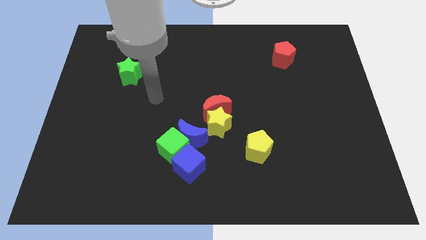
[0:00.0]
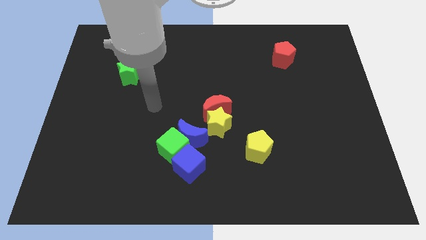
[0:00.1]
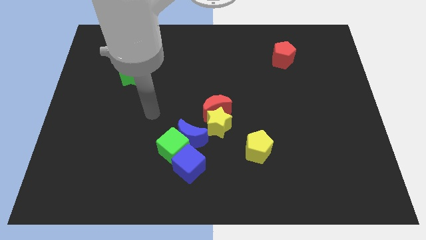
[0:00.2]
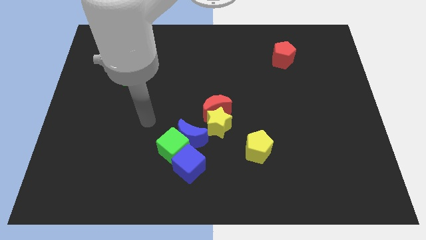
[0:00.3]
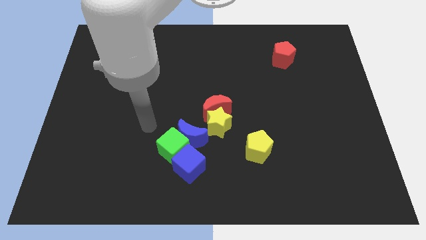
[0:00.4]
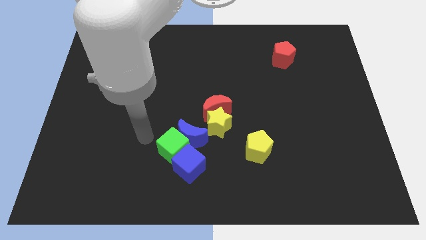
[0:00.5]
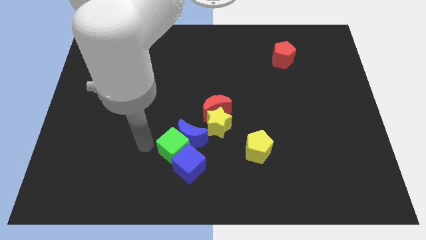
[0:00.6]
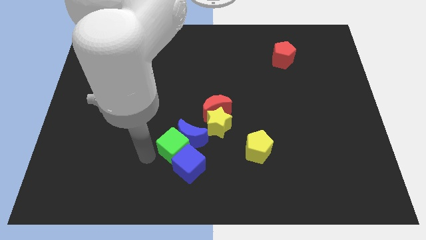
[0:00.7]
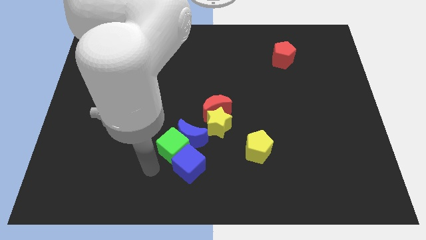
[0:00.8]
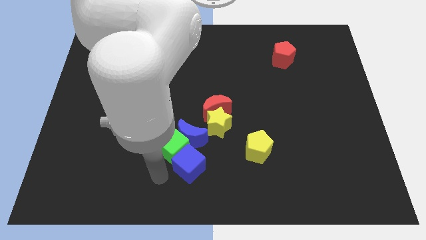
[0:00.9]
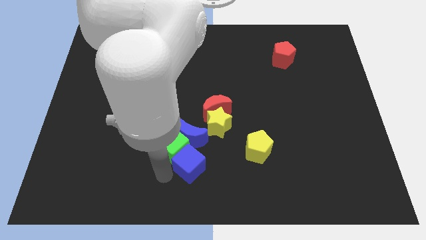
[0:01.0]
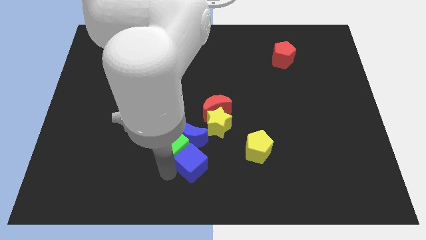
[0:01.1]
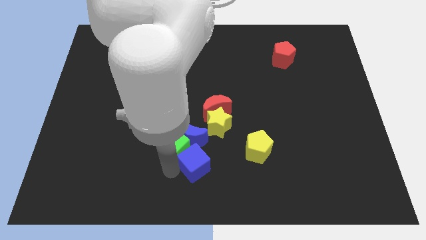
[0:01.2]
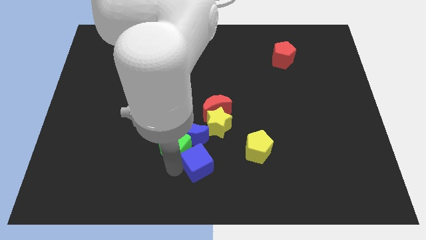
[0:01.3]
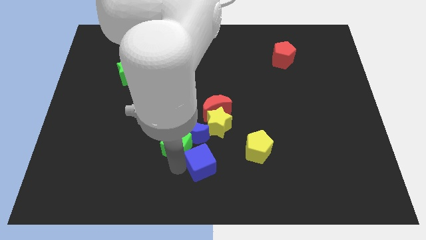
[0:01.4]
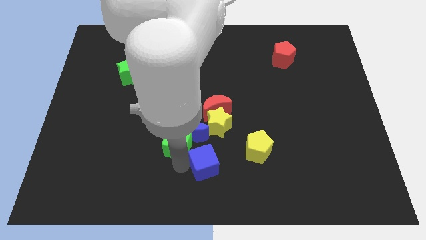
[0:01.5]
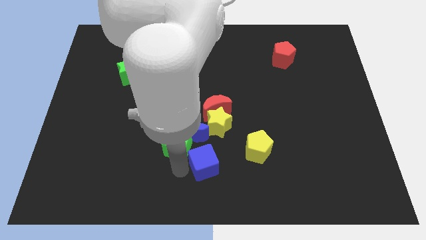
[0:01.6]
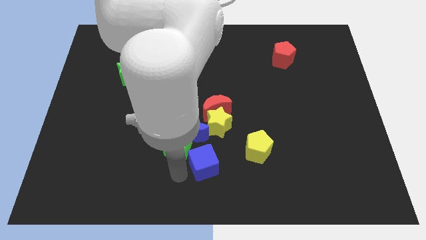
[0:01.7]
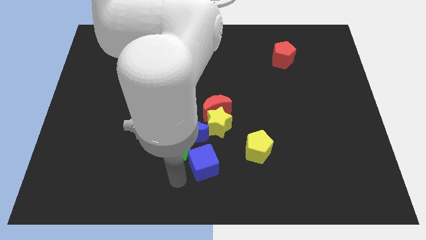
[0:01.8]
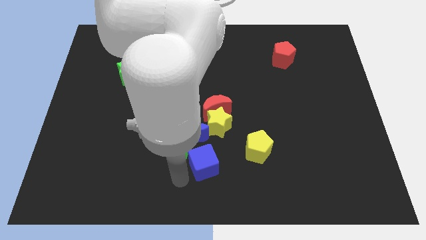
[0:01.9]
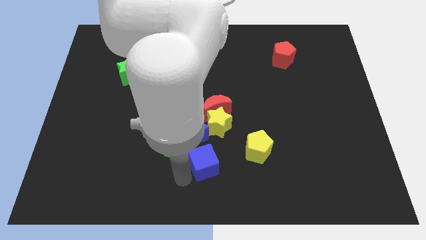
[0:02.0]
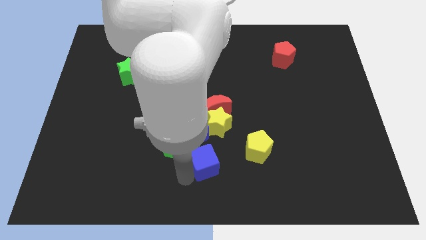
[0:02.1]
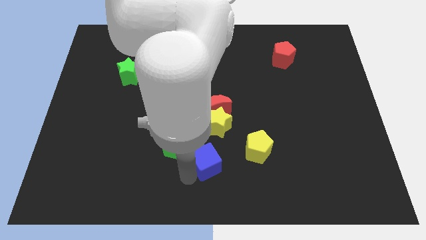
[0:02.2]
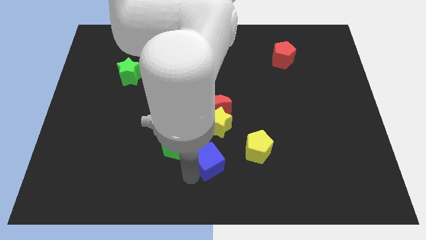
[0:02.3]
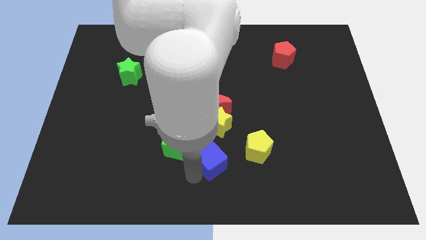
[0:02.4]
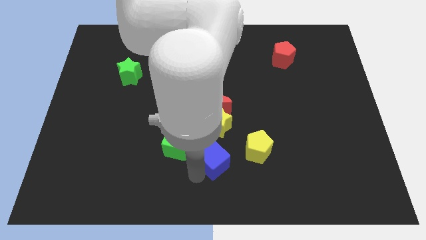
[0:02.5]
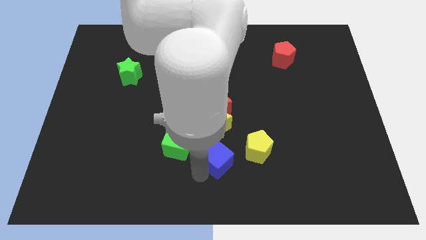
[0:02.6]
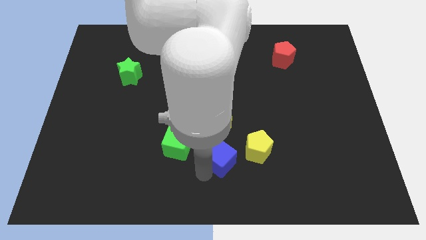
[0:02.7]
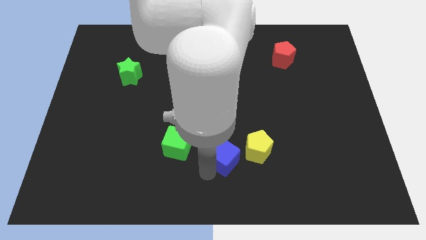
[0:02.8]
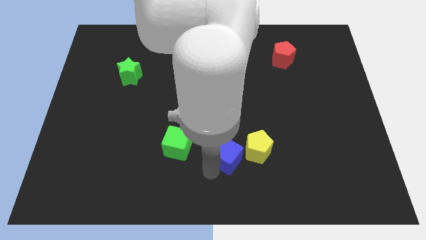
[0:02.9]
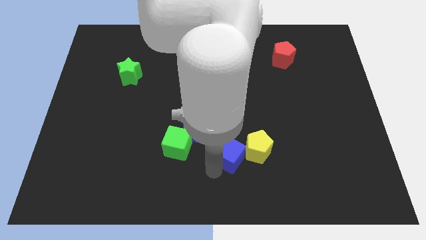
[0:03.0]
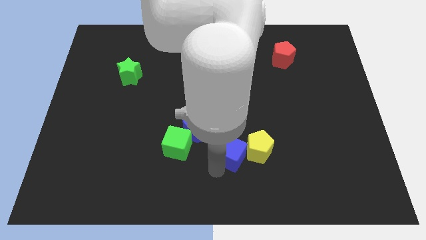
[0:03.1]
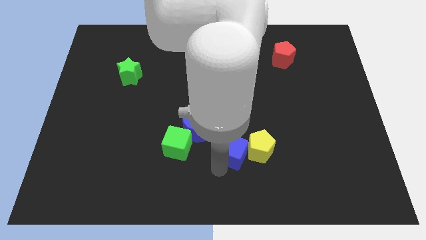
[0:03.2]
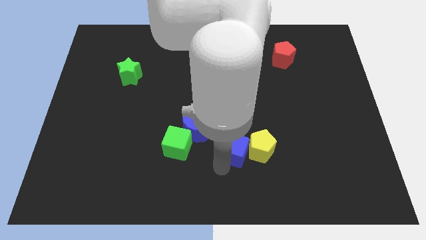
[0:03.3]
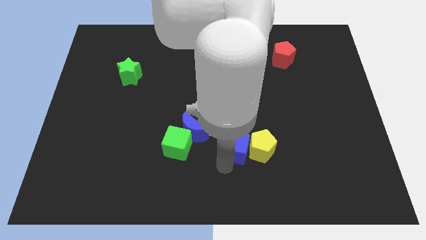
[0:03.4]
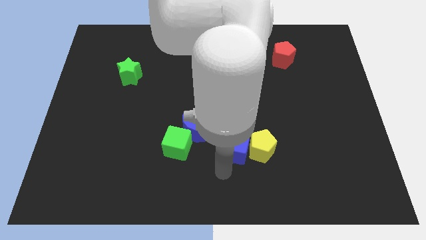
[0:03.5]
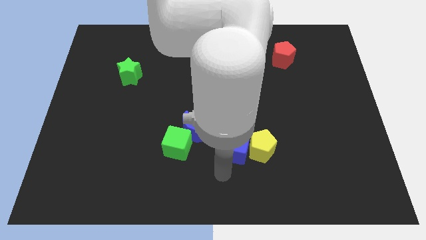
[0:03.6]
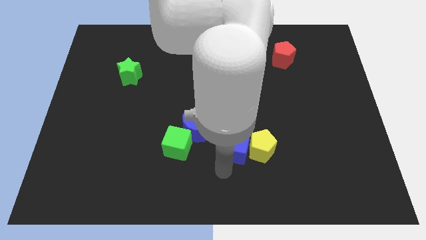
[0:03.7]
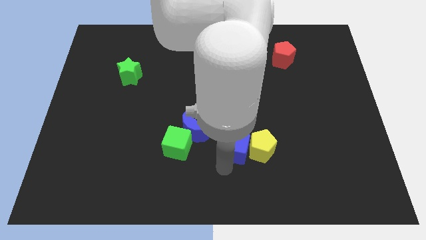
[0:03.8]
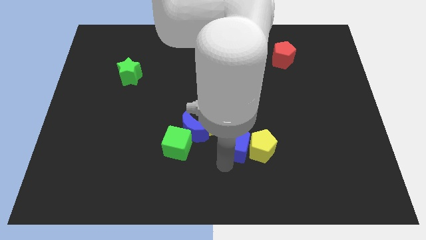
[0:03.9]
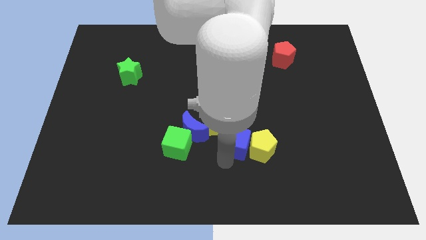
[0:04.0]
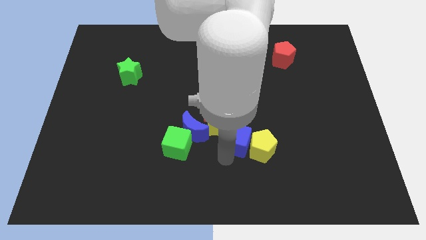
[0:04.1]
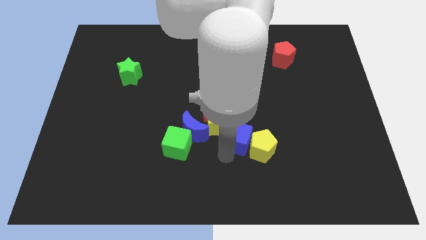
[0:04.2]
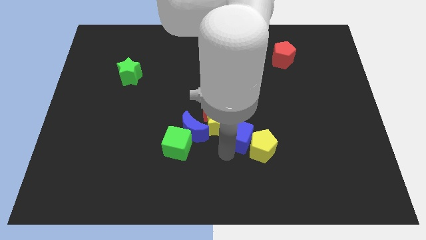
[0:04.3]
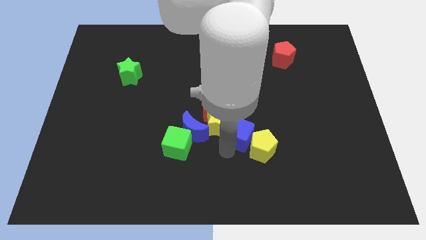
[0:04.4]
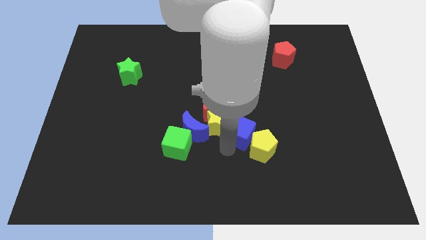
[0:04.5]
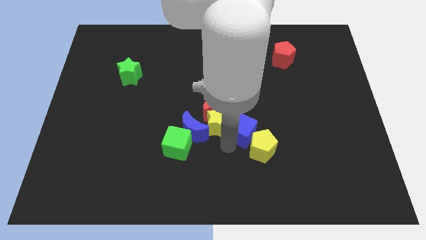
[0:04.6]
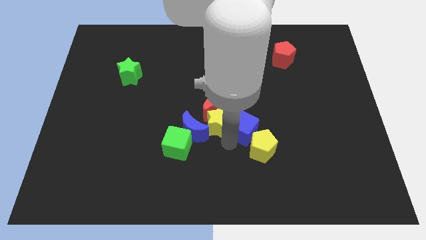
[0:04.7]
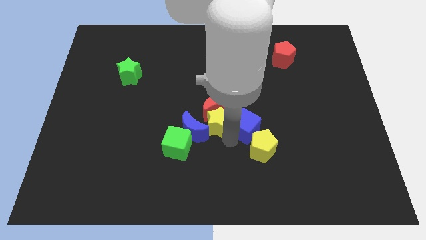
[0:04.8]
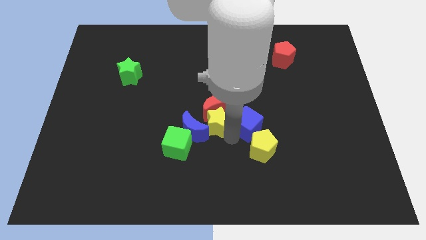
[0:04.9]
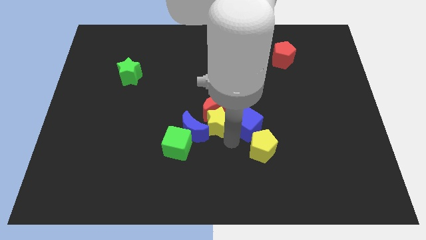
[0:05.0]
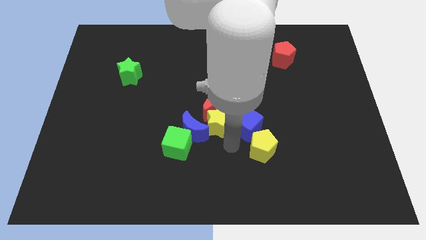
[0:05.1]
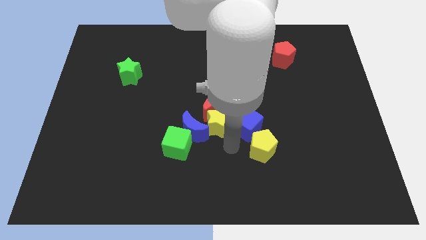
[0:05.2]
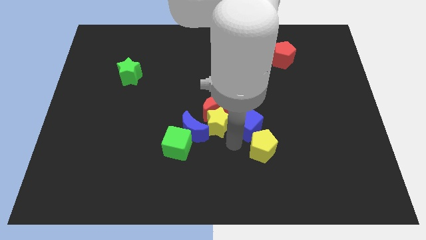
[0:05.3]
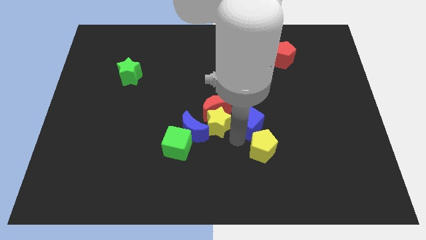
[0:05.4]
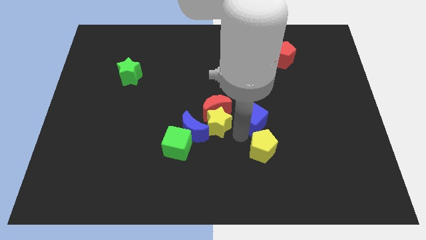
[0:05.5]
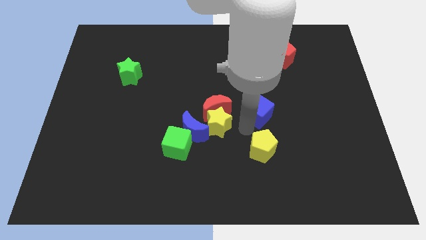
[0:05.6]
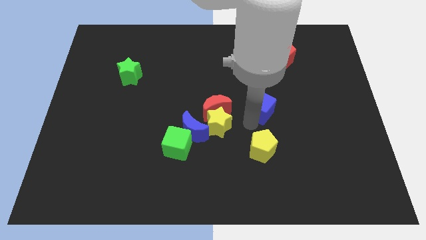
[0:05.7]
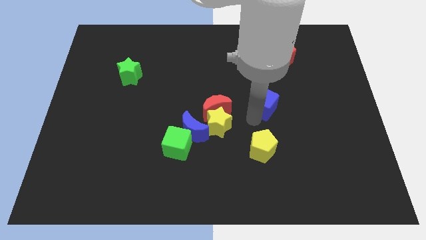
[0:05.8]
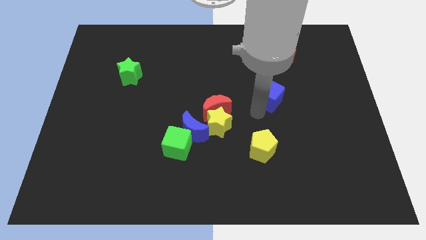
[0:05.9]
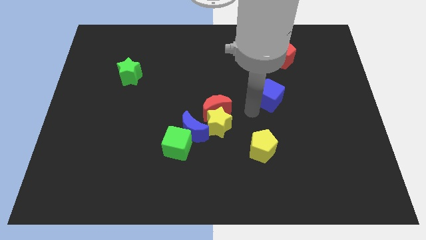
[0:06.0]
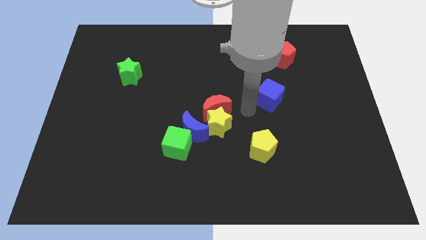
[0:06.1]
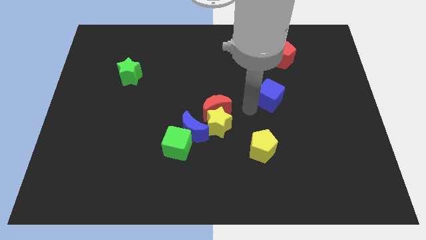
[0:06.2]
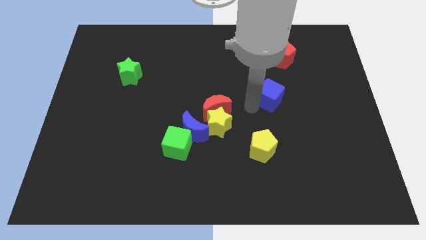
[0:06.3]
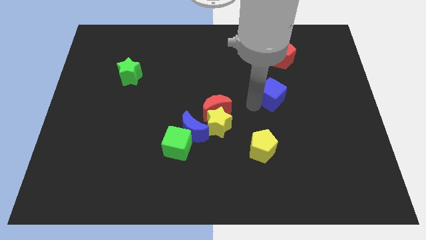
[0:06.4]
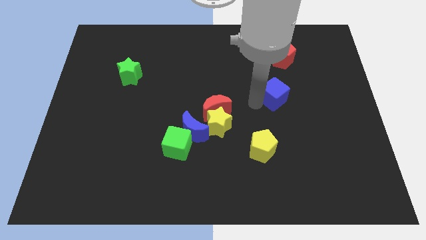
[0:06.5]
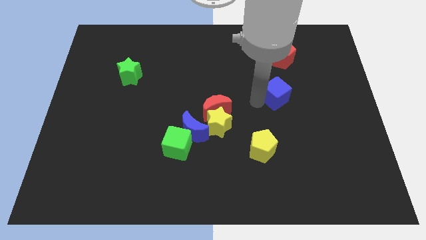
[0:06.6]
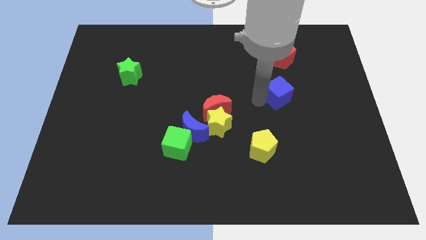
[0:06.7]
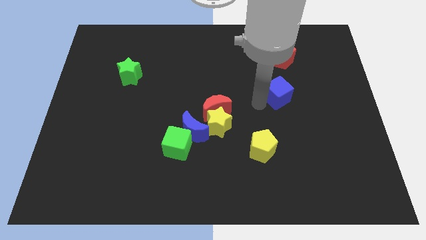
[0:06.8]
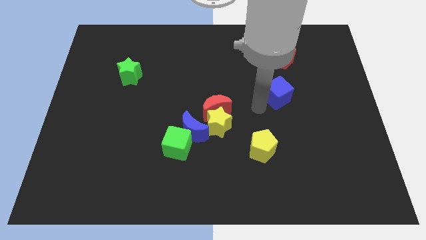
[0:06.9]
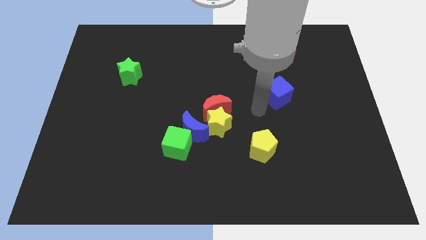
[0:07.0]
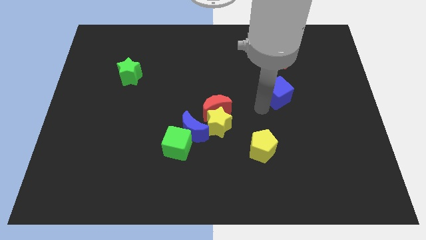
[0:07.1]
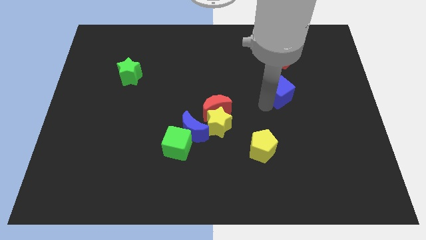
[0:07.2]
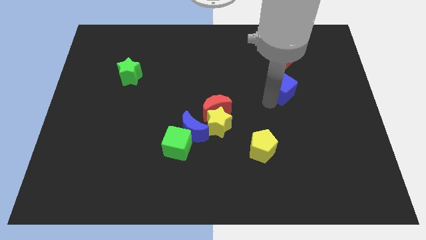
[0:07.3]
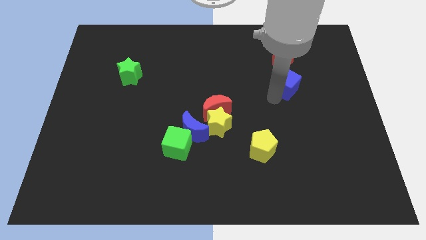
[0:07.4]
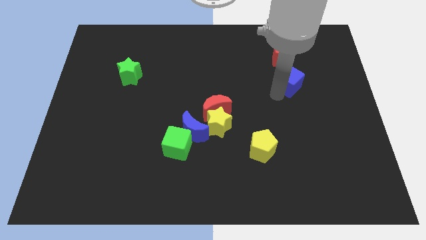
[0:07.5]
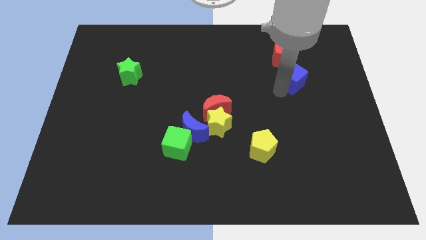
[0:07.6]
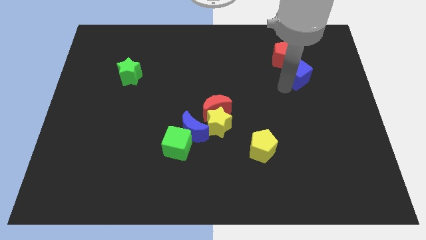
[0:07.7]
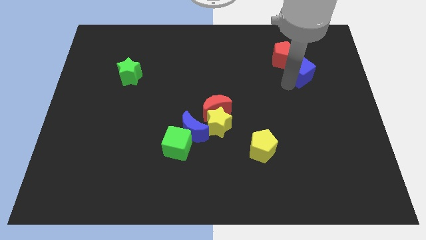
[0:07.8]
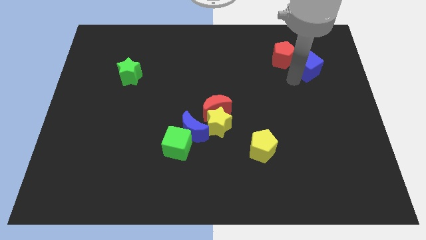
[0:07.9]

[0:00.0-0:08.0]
push the blue cube right of the red pentagon
